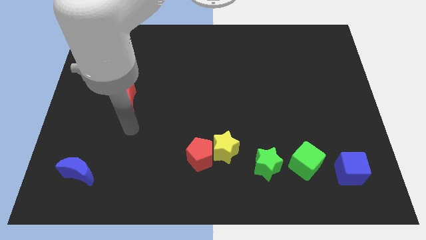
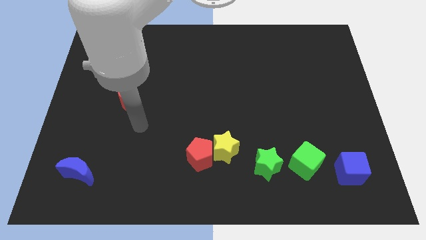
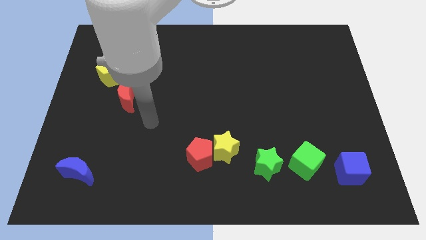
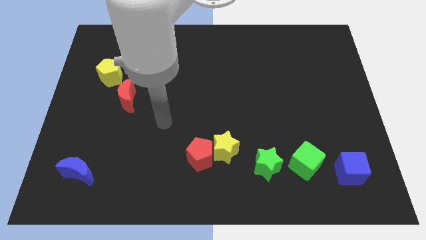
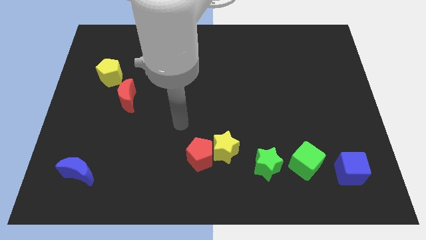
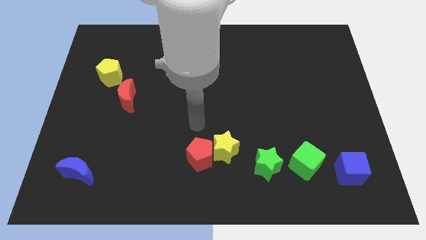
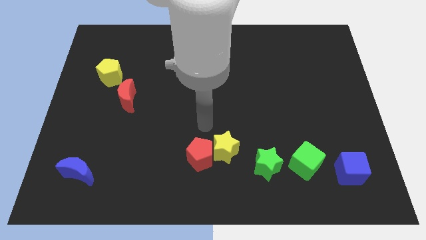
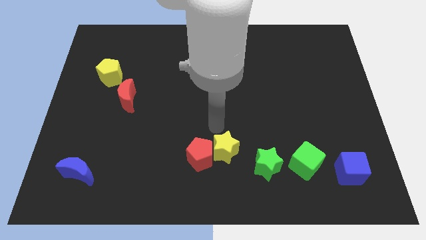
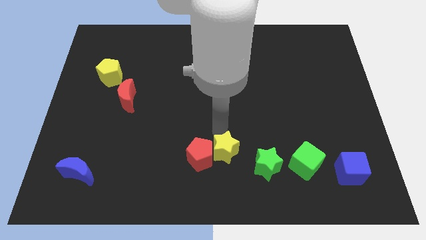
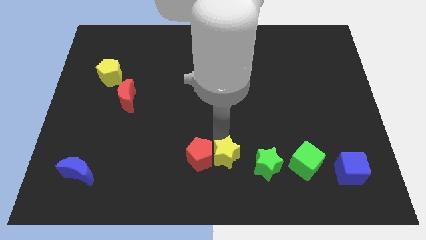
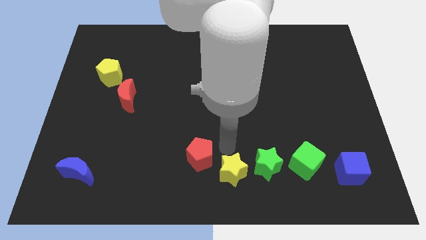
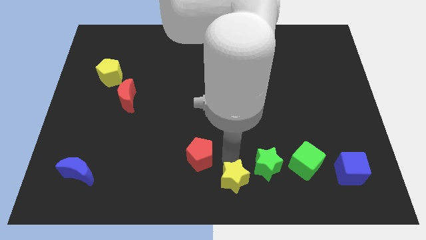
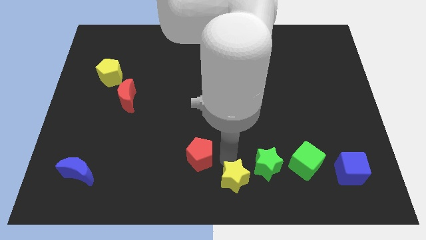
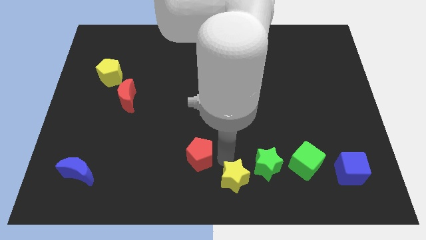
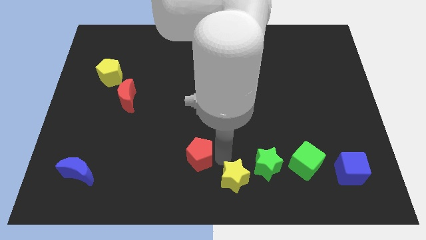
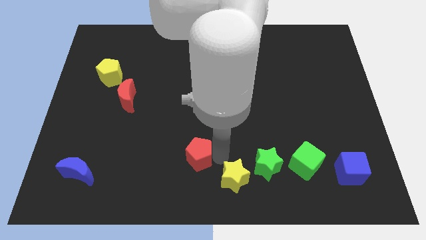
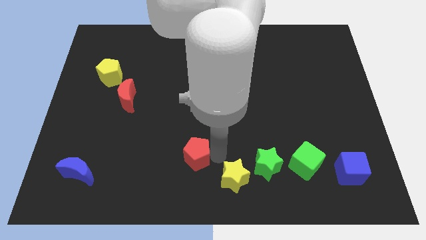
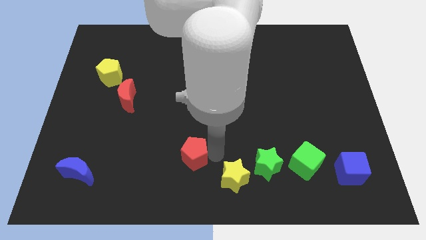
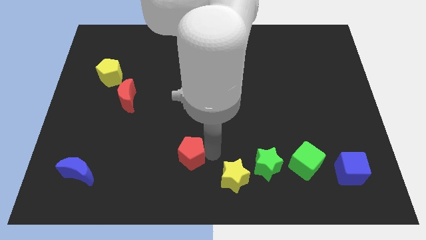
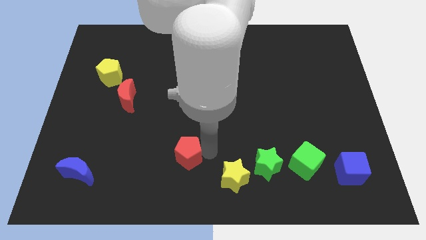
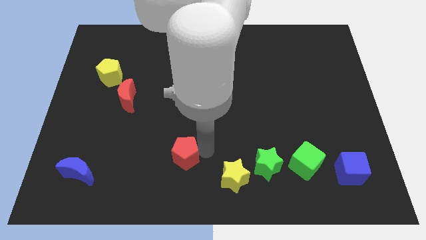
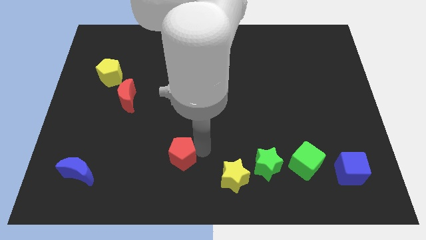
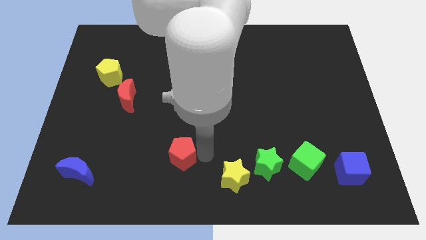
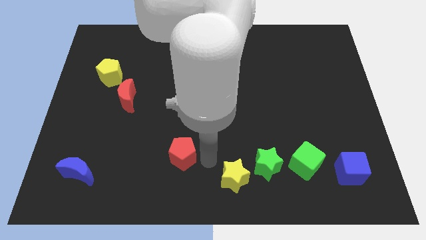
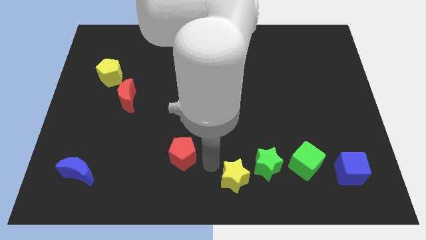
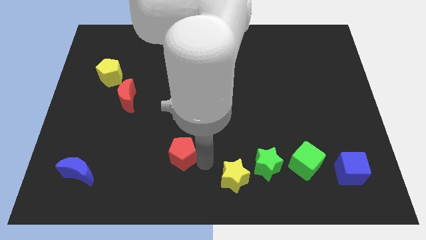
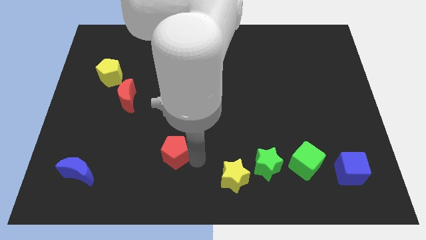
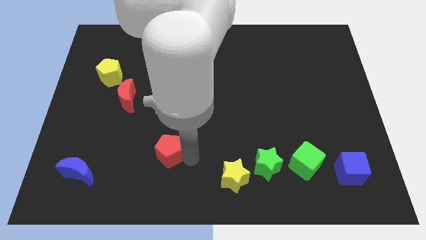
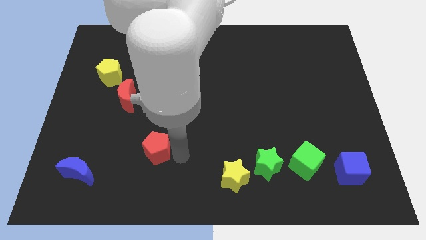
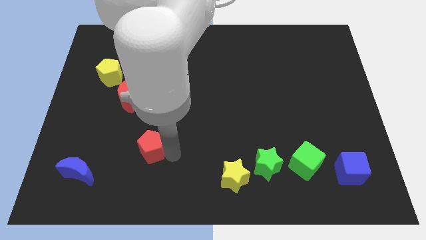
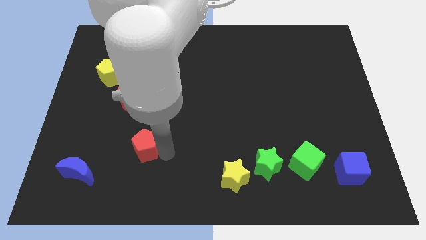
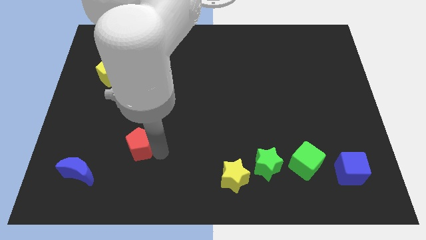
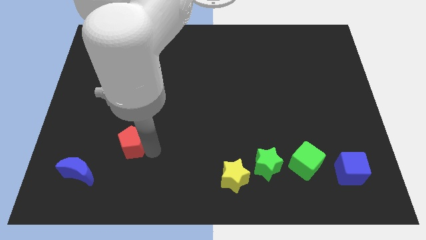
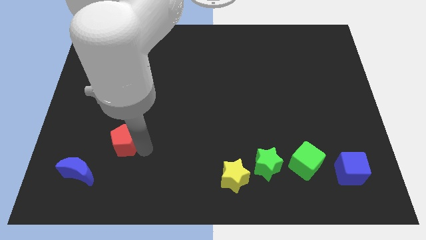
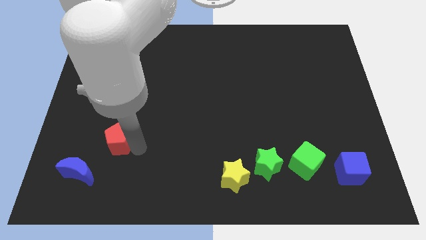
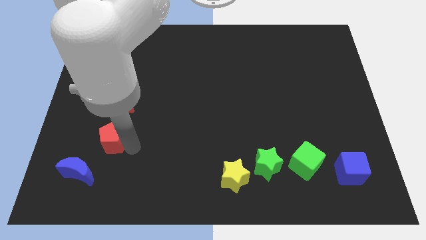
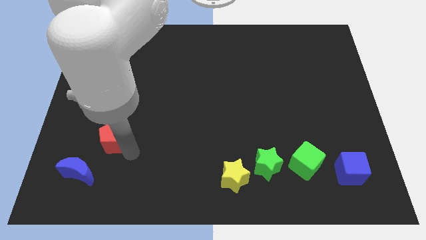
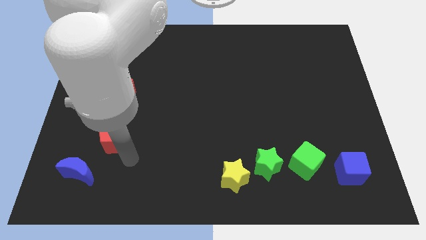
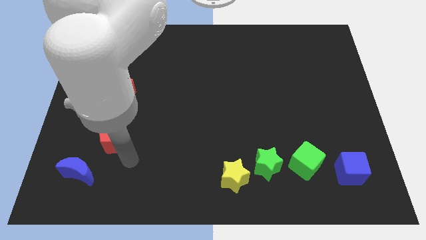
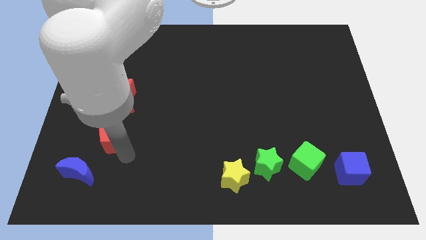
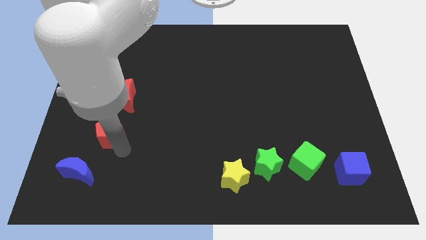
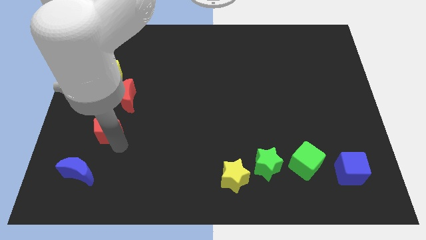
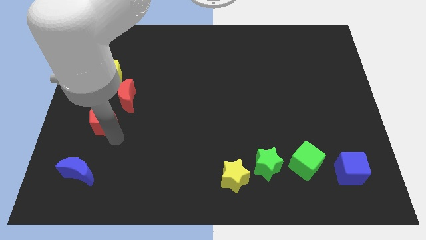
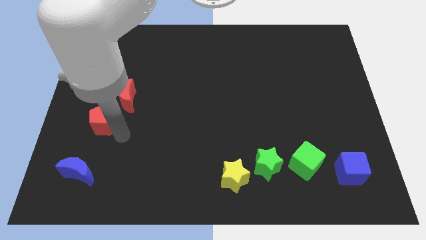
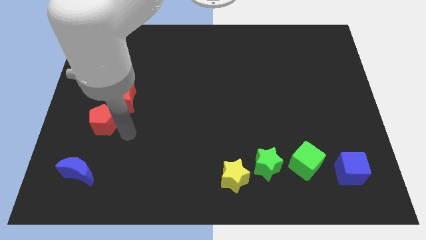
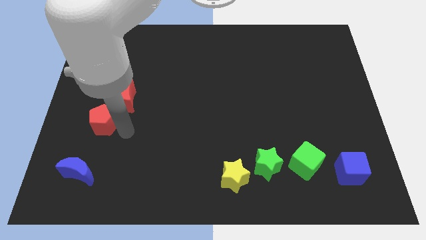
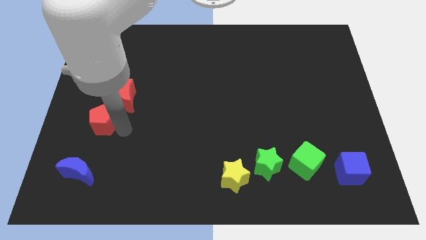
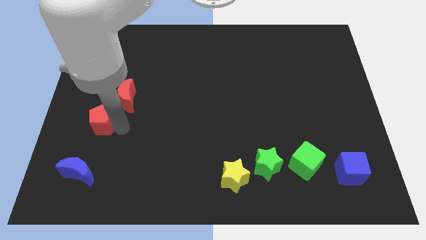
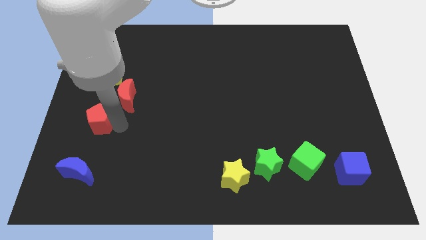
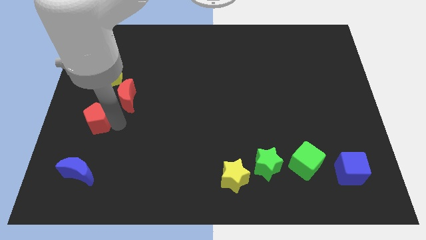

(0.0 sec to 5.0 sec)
put the red pentagon to the center left

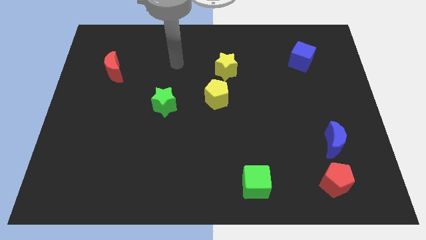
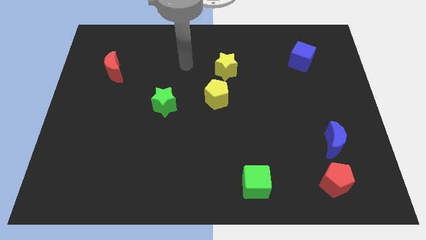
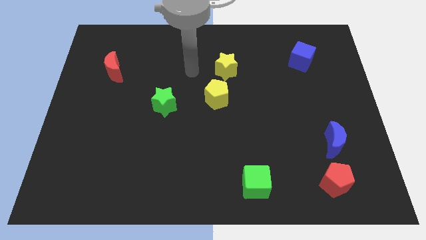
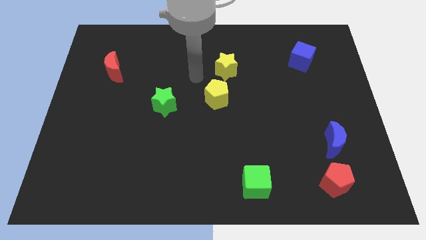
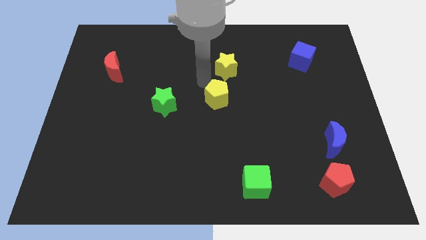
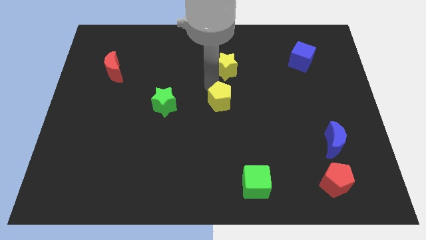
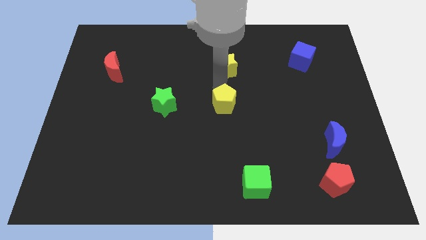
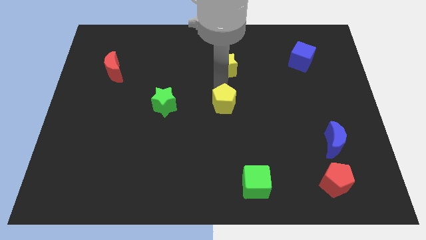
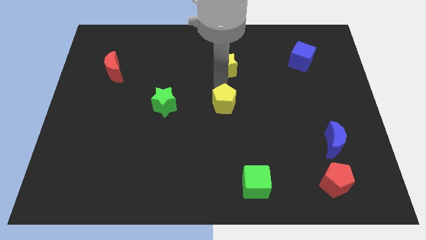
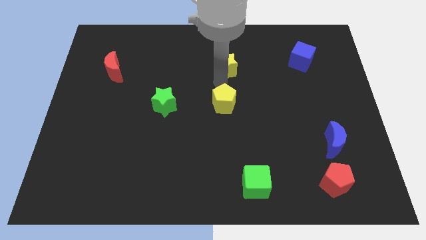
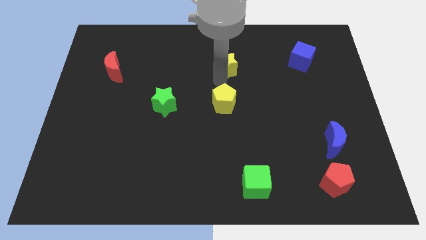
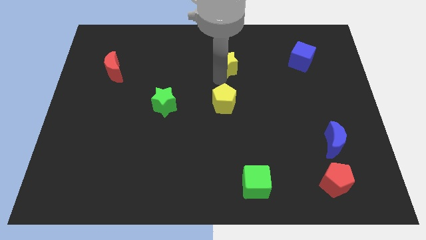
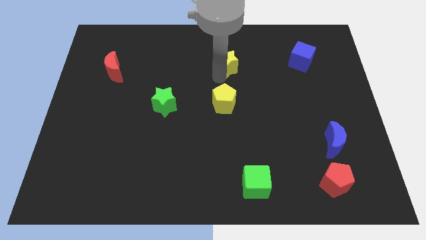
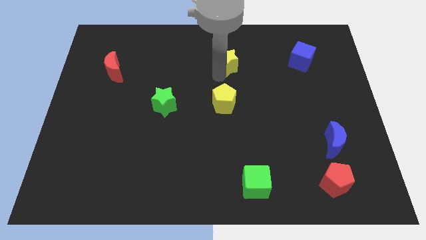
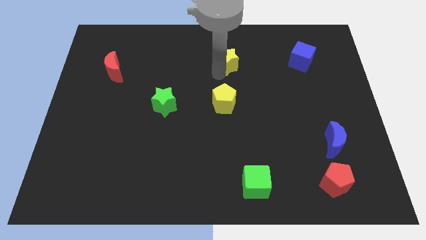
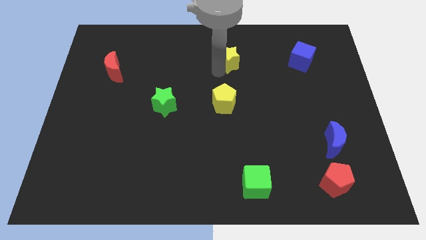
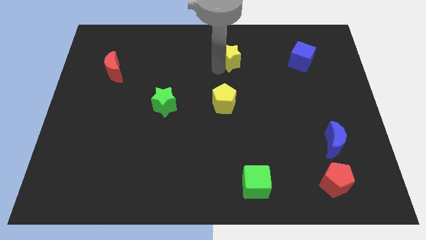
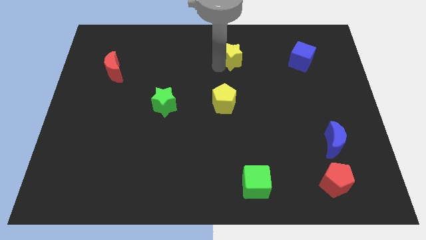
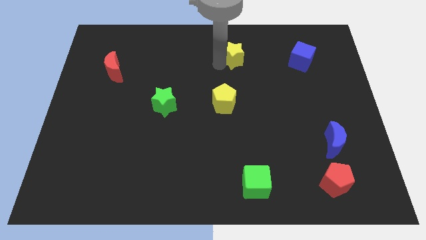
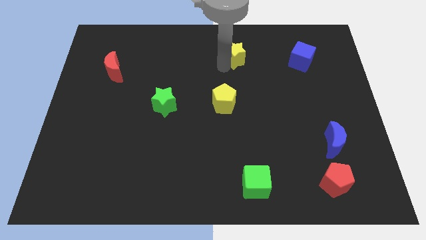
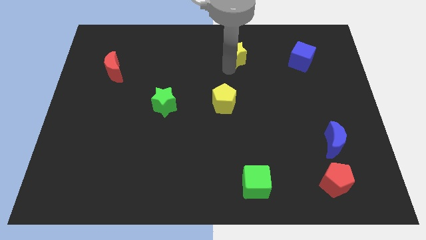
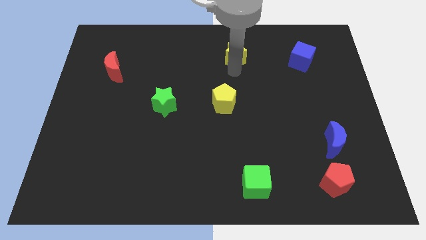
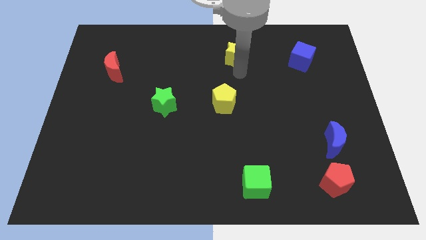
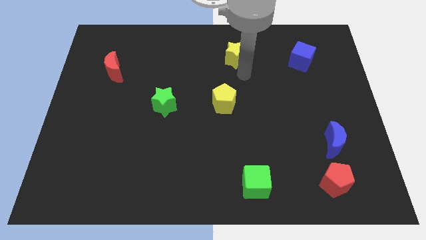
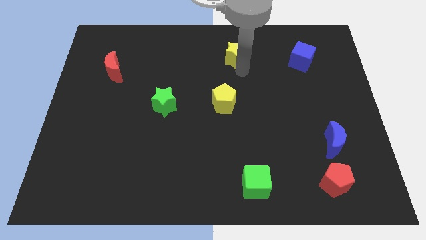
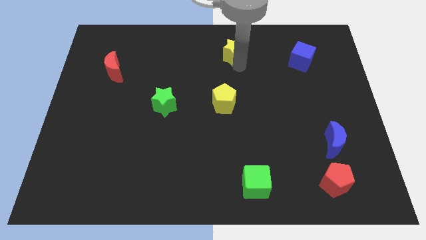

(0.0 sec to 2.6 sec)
slide the yellow star to the top
